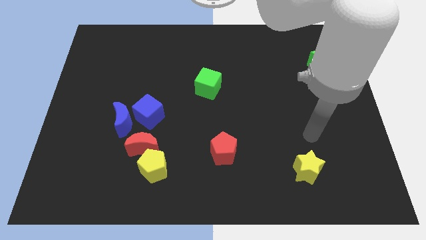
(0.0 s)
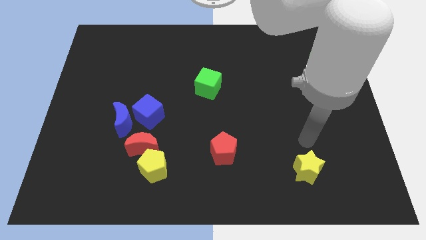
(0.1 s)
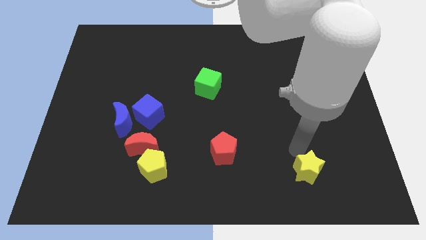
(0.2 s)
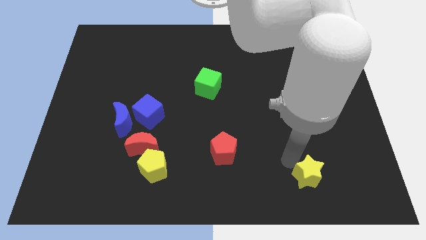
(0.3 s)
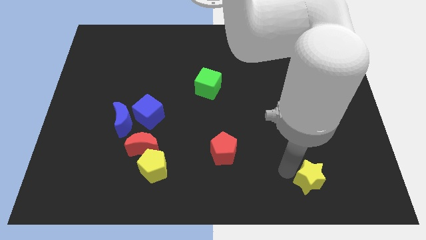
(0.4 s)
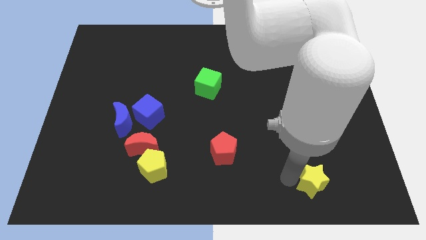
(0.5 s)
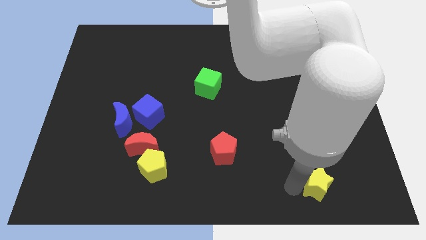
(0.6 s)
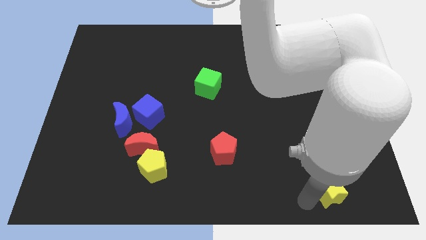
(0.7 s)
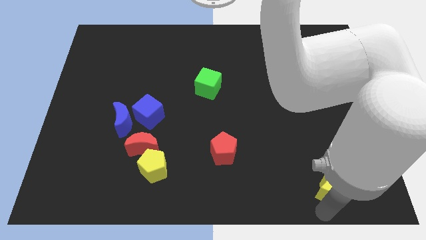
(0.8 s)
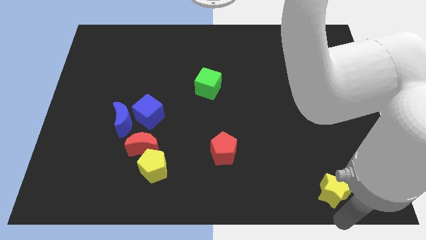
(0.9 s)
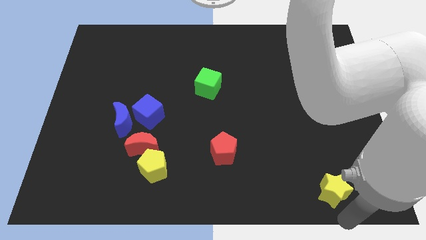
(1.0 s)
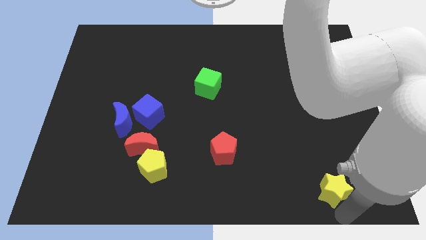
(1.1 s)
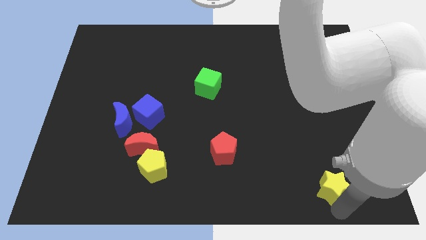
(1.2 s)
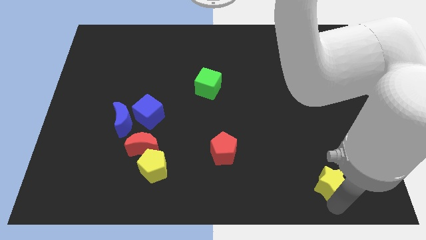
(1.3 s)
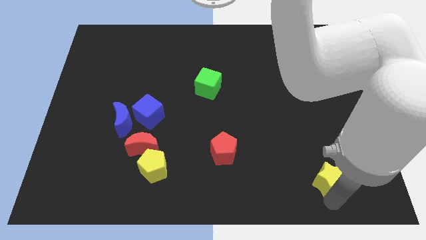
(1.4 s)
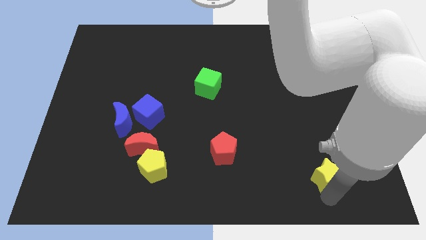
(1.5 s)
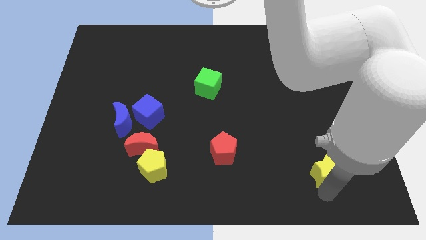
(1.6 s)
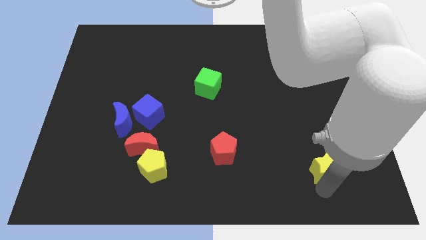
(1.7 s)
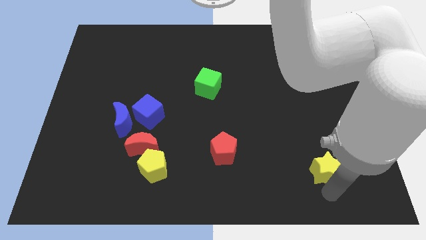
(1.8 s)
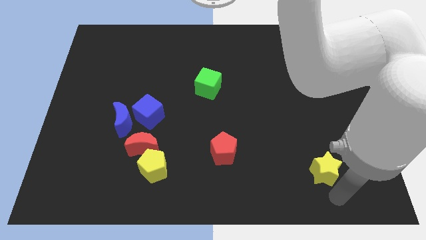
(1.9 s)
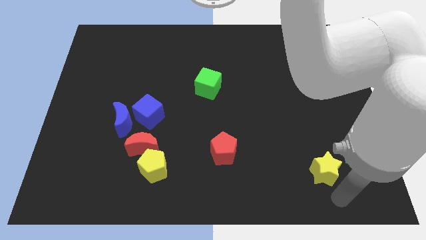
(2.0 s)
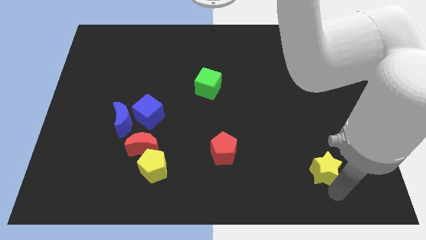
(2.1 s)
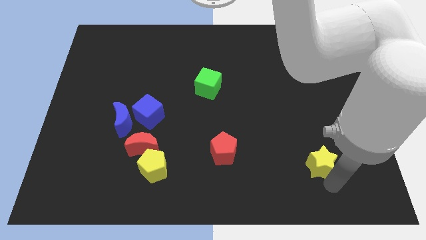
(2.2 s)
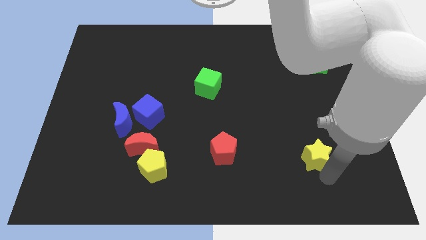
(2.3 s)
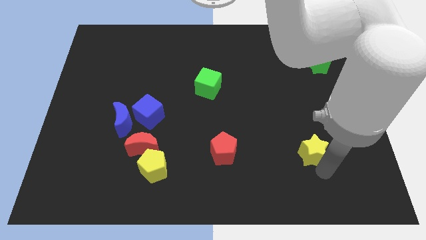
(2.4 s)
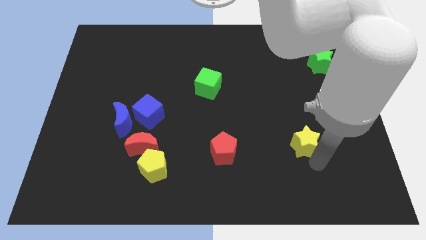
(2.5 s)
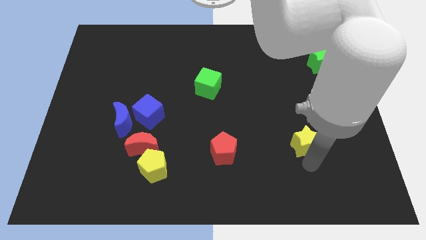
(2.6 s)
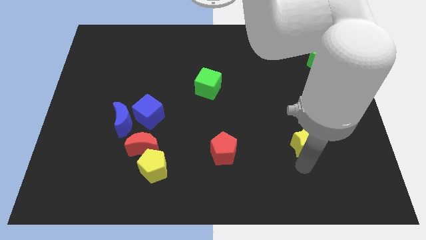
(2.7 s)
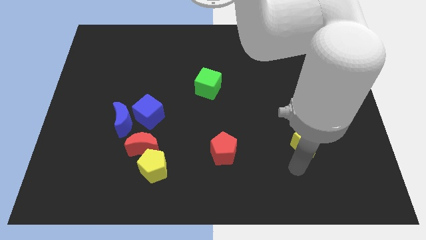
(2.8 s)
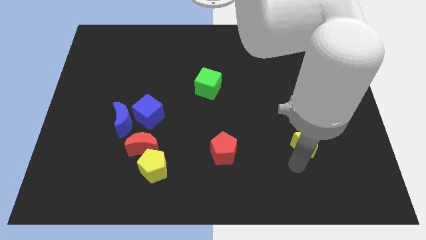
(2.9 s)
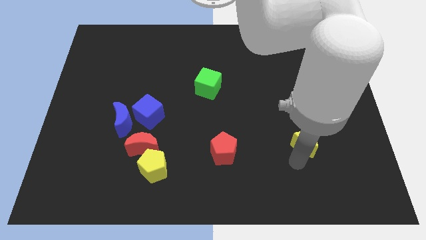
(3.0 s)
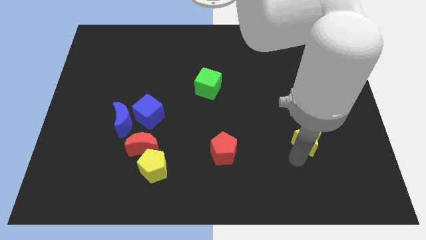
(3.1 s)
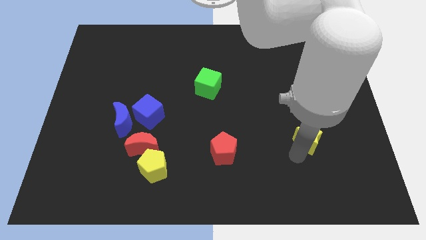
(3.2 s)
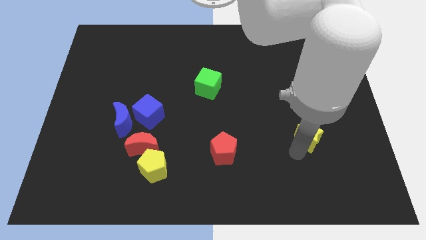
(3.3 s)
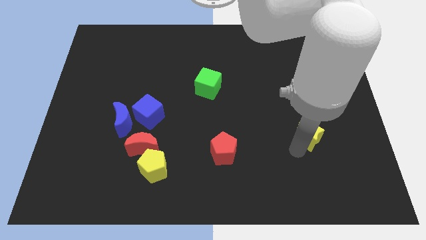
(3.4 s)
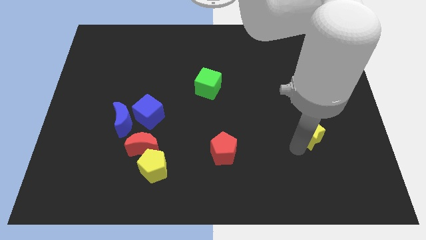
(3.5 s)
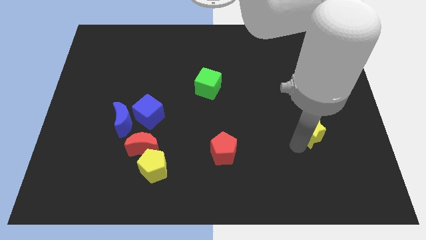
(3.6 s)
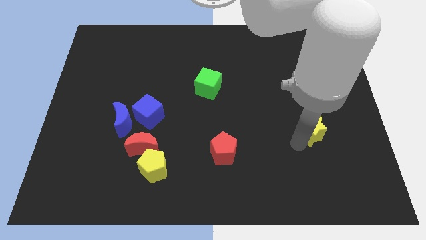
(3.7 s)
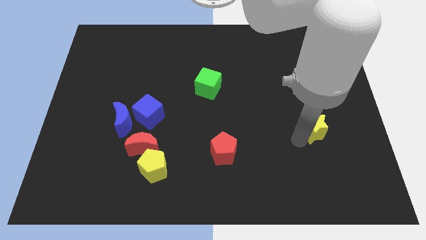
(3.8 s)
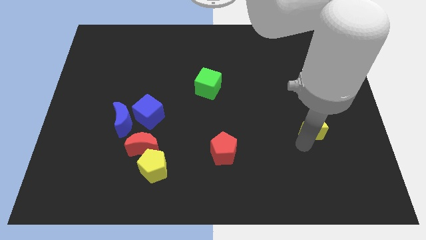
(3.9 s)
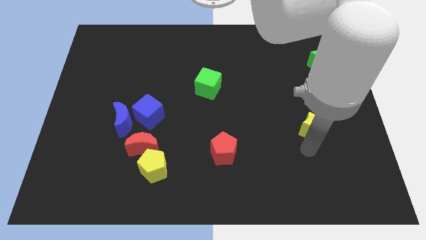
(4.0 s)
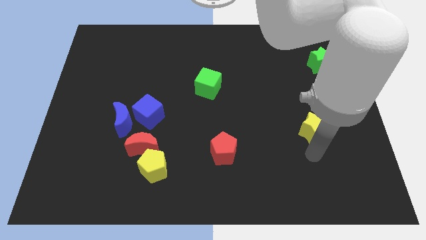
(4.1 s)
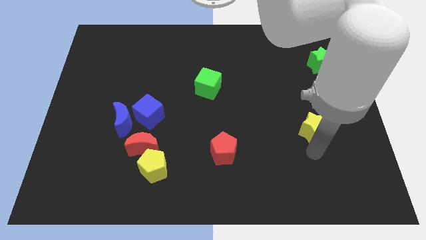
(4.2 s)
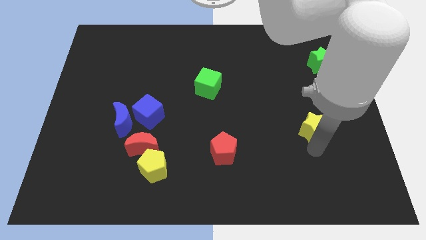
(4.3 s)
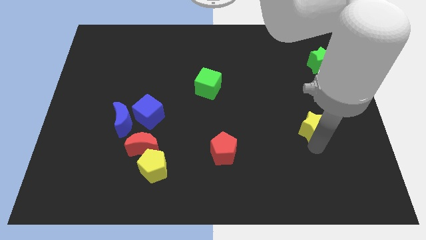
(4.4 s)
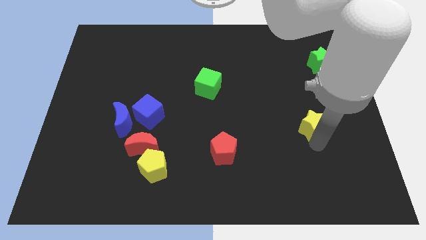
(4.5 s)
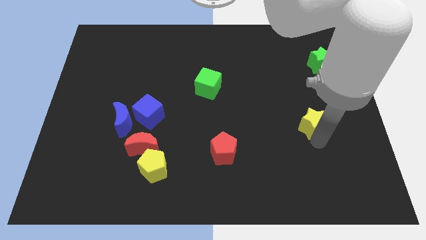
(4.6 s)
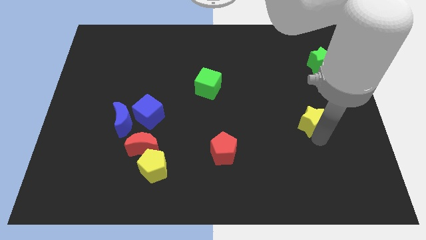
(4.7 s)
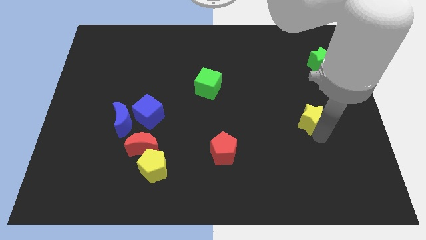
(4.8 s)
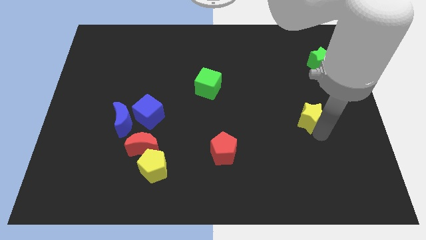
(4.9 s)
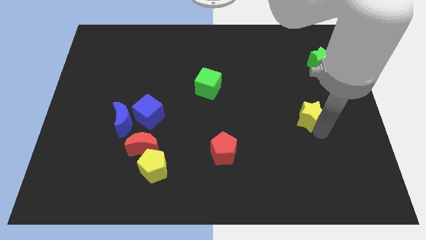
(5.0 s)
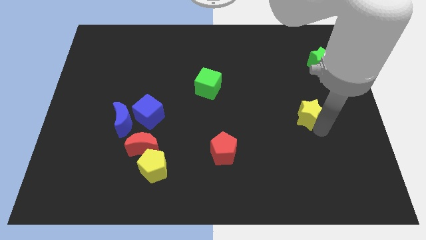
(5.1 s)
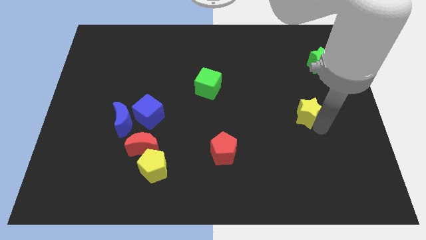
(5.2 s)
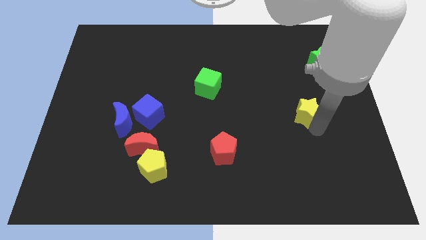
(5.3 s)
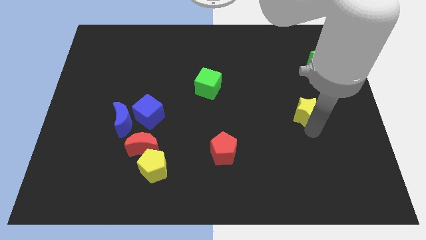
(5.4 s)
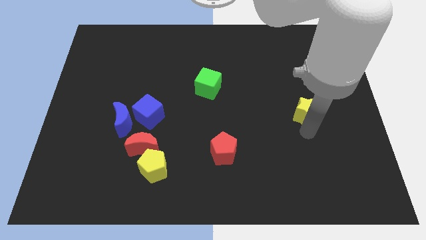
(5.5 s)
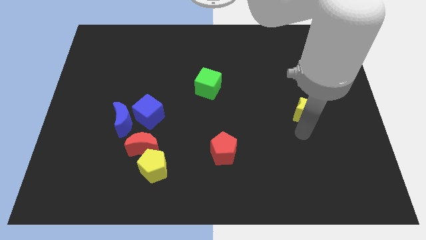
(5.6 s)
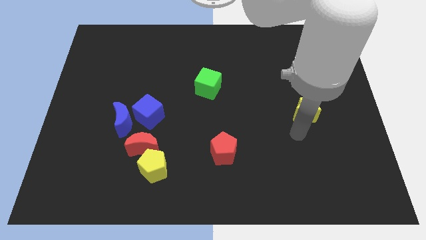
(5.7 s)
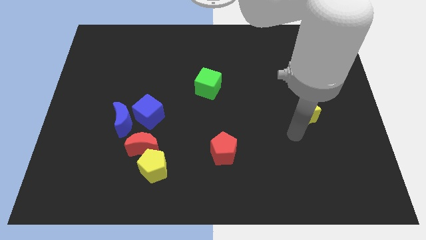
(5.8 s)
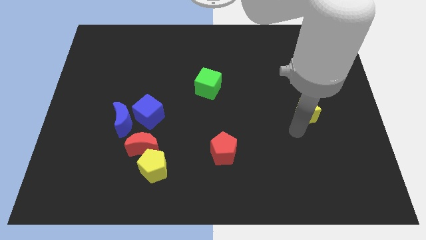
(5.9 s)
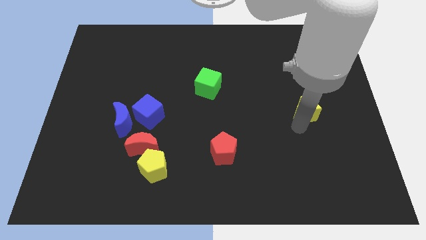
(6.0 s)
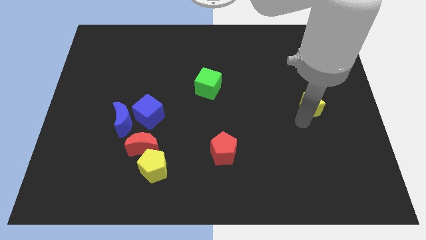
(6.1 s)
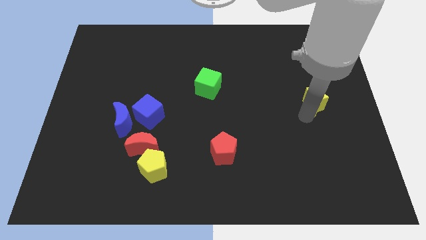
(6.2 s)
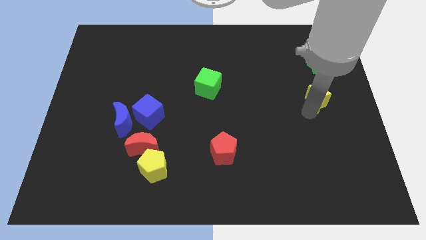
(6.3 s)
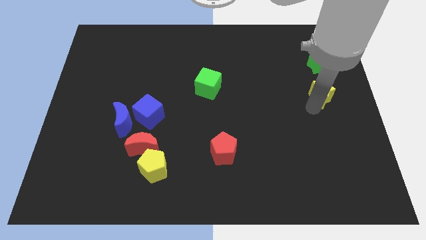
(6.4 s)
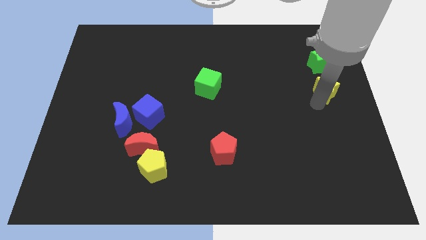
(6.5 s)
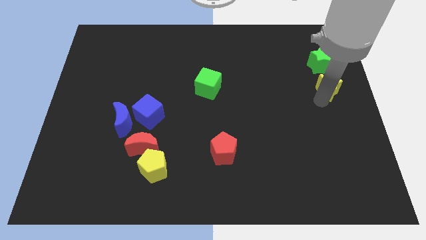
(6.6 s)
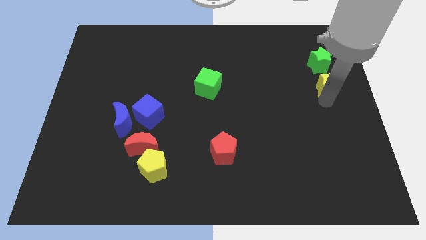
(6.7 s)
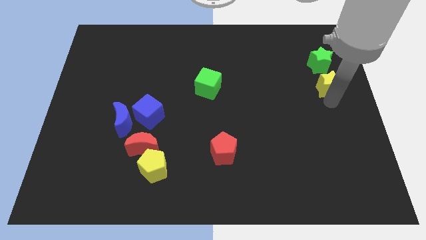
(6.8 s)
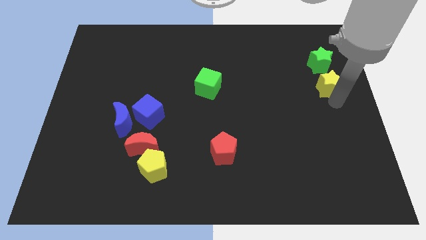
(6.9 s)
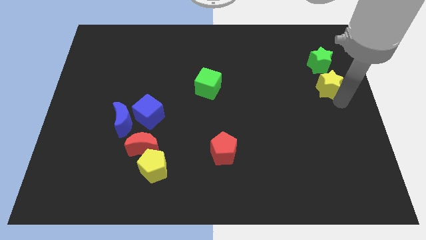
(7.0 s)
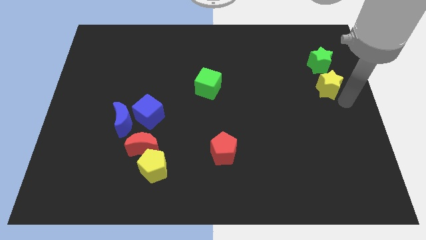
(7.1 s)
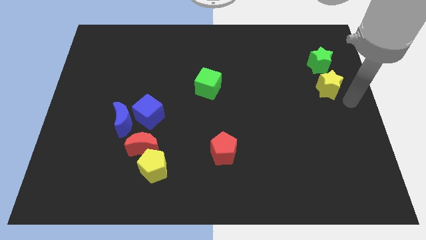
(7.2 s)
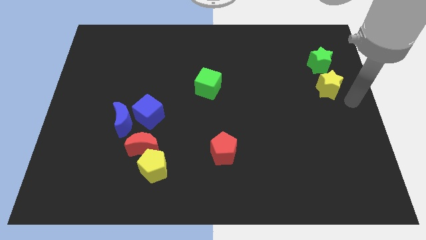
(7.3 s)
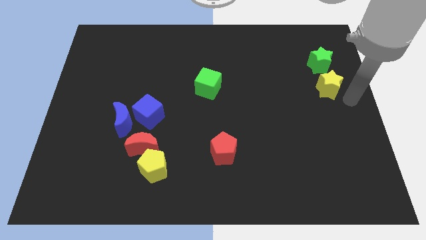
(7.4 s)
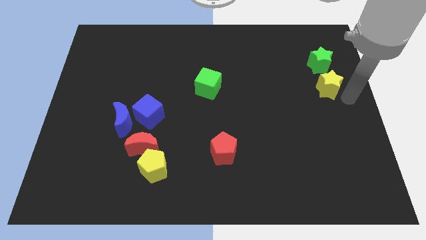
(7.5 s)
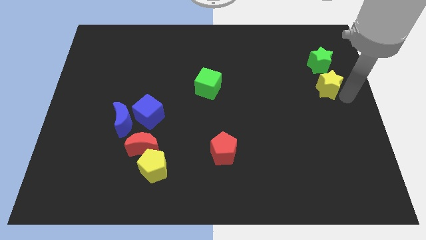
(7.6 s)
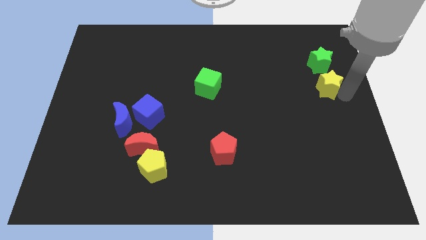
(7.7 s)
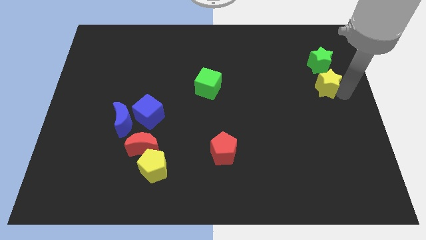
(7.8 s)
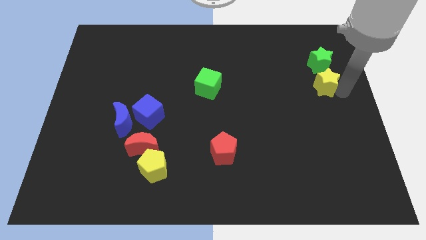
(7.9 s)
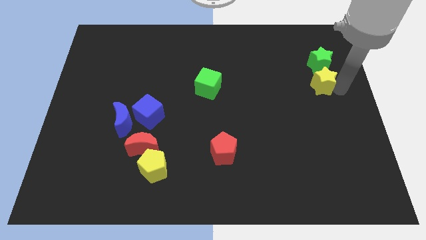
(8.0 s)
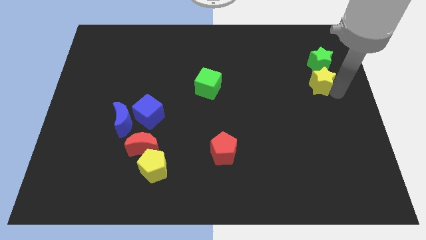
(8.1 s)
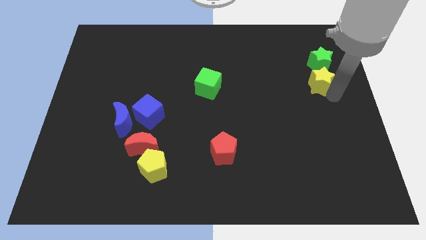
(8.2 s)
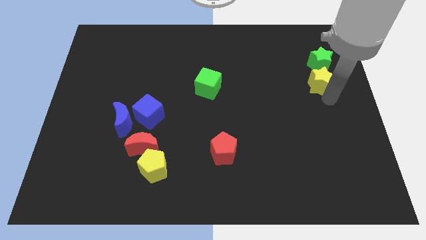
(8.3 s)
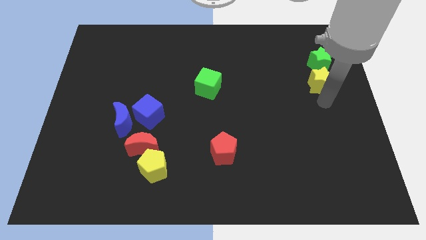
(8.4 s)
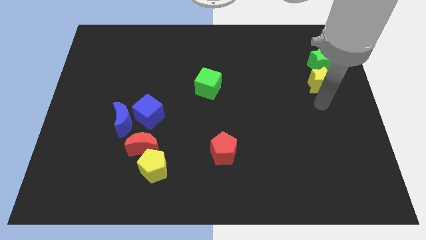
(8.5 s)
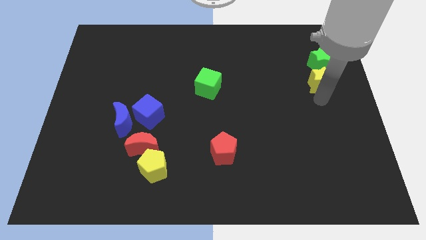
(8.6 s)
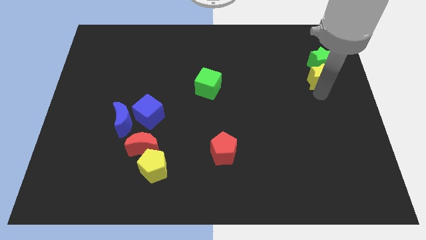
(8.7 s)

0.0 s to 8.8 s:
slide the yellow star towards the green star
